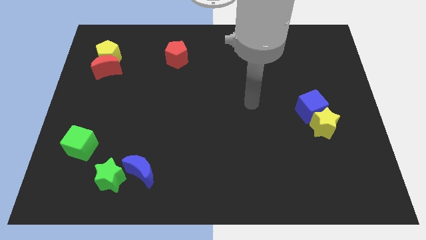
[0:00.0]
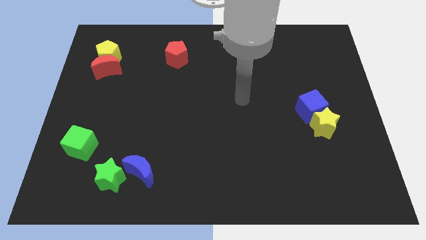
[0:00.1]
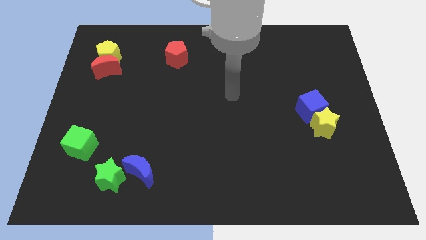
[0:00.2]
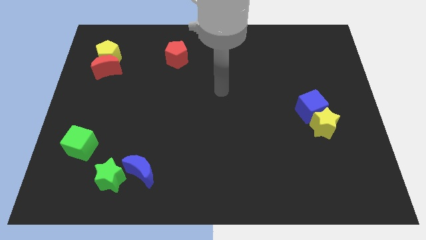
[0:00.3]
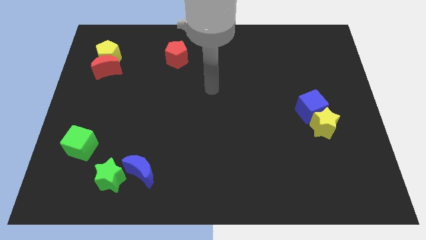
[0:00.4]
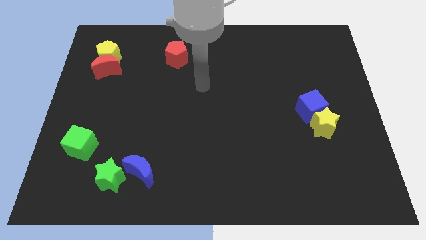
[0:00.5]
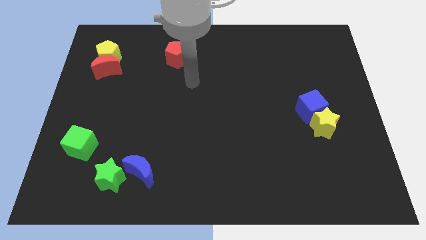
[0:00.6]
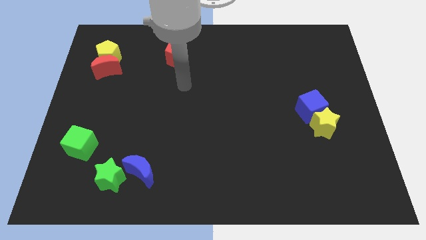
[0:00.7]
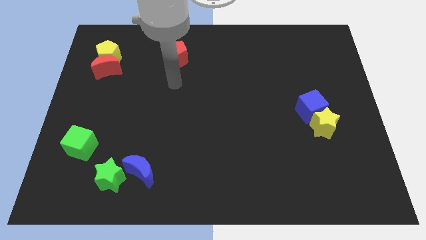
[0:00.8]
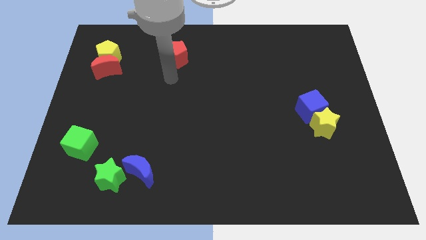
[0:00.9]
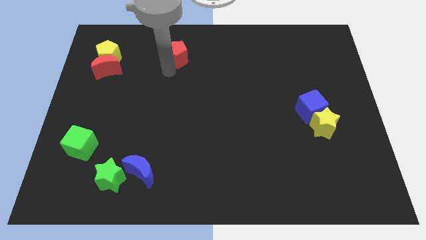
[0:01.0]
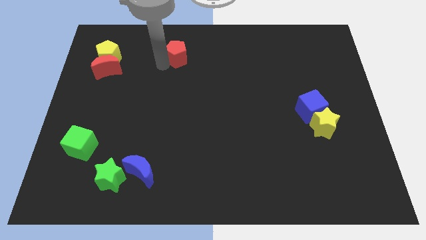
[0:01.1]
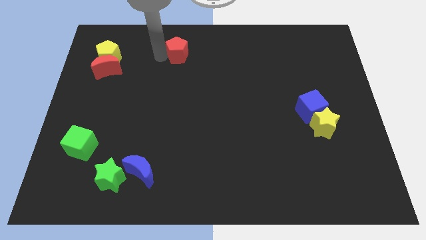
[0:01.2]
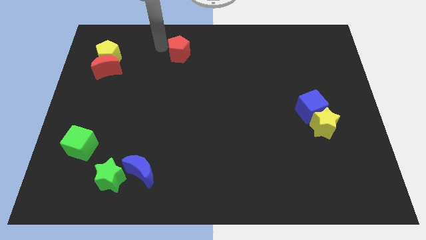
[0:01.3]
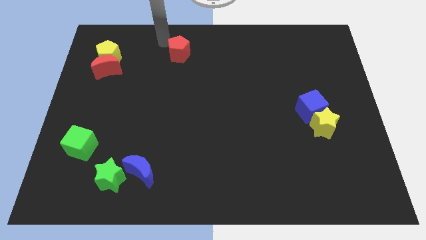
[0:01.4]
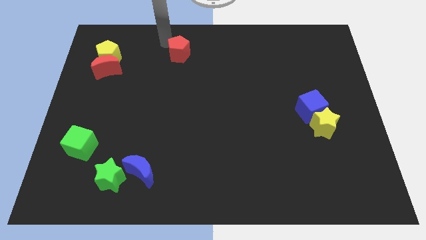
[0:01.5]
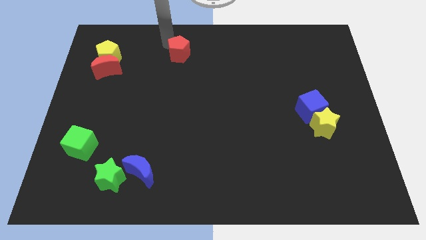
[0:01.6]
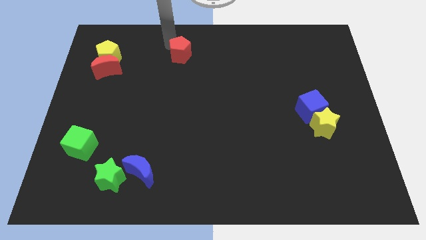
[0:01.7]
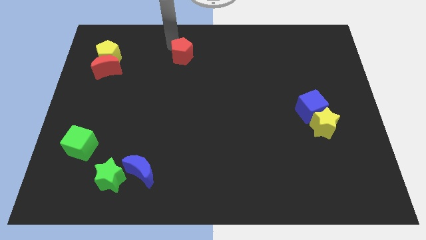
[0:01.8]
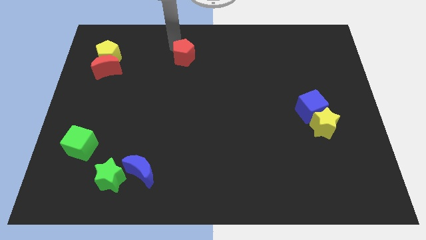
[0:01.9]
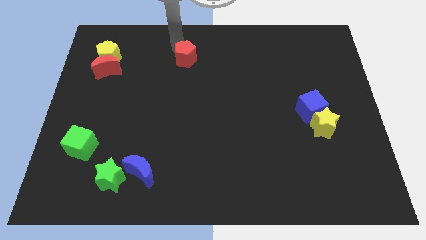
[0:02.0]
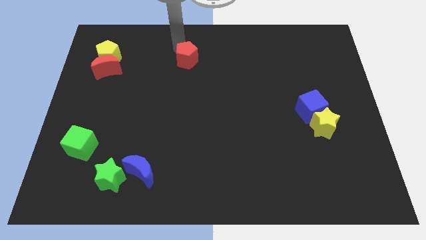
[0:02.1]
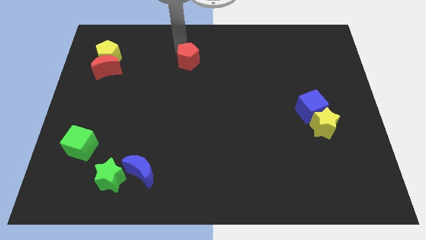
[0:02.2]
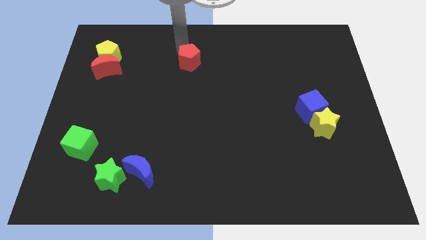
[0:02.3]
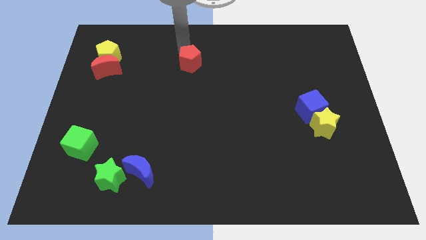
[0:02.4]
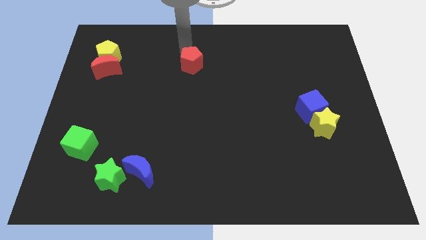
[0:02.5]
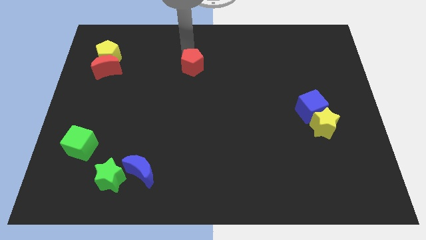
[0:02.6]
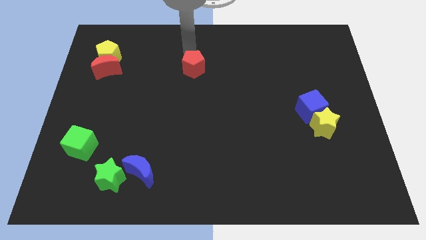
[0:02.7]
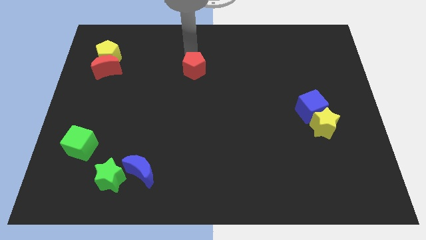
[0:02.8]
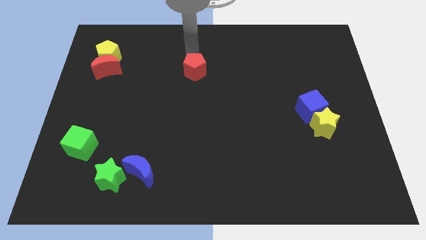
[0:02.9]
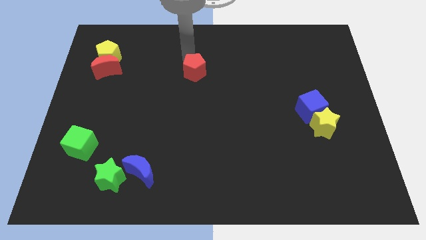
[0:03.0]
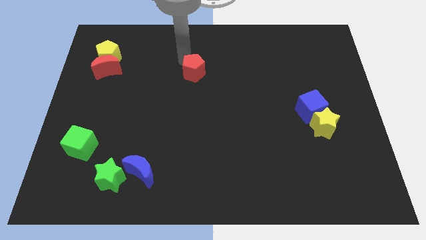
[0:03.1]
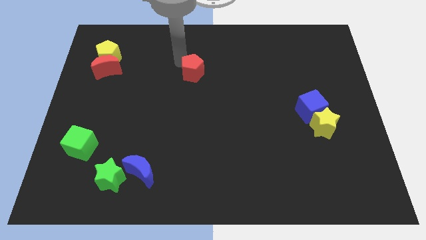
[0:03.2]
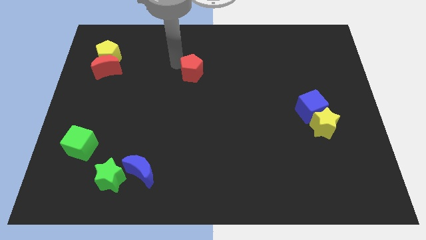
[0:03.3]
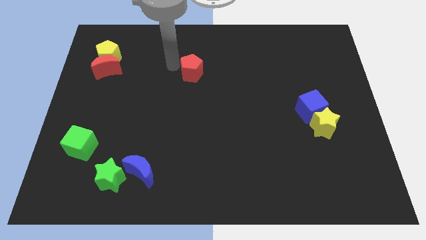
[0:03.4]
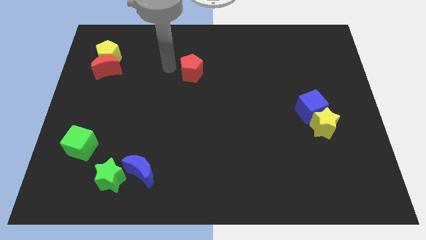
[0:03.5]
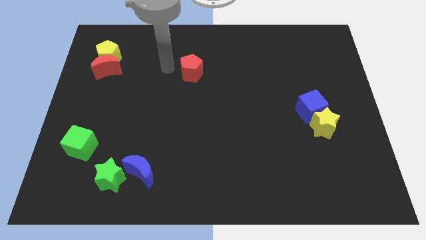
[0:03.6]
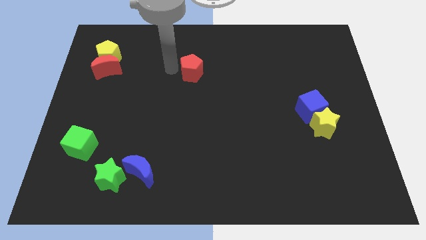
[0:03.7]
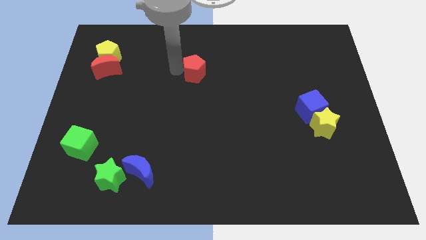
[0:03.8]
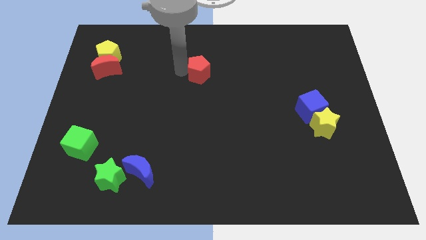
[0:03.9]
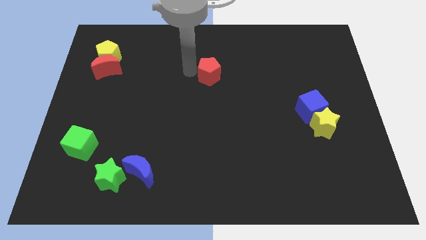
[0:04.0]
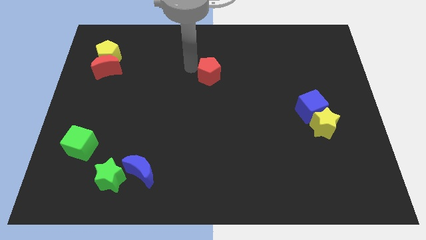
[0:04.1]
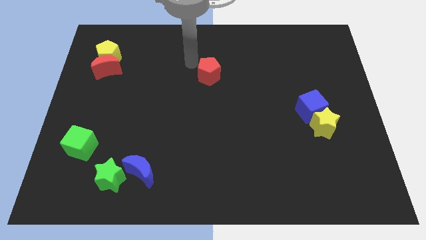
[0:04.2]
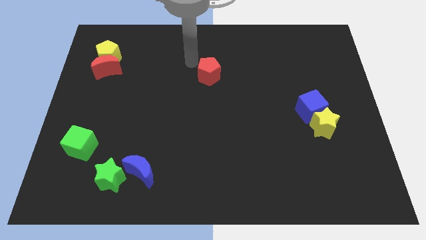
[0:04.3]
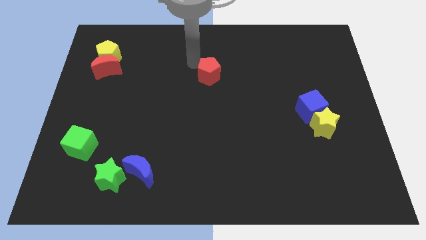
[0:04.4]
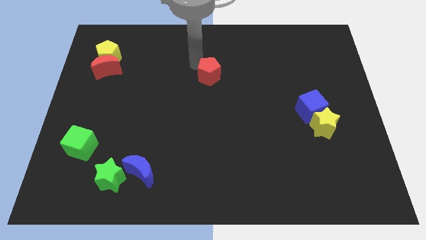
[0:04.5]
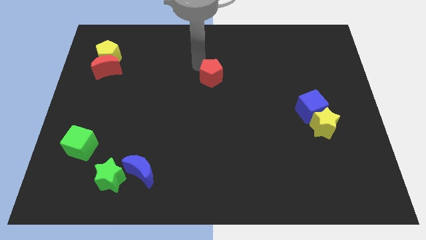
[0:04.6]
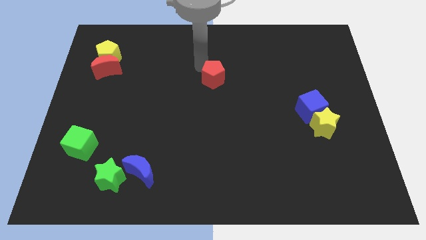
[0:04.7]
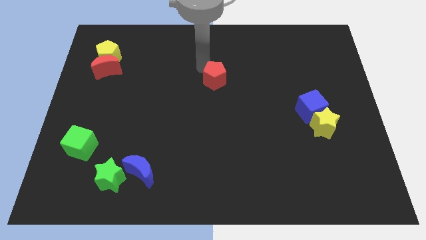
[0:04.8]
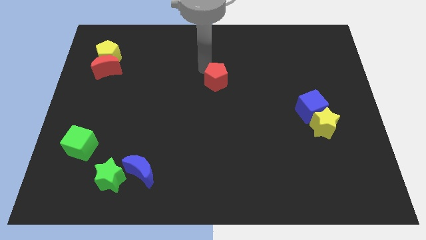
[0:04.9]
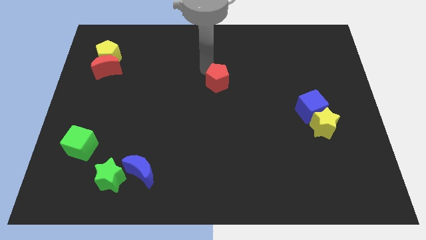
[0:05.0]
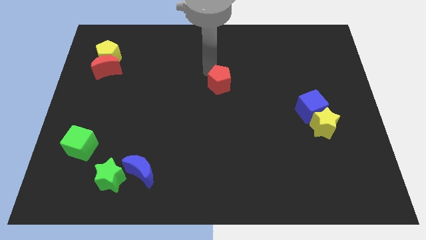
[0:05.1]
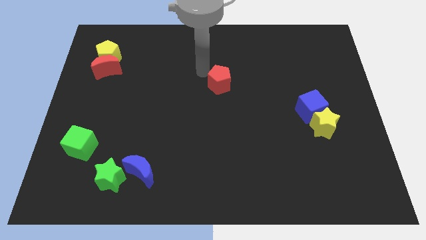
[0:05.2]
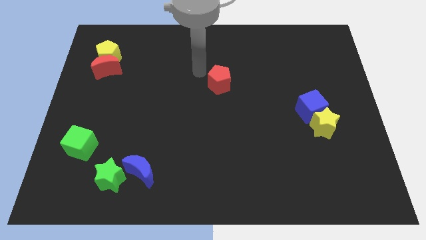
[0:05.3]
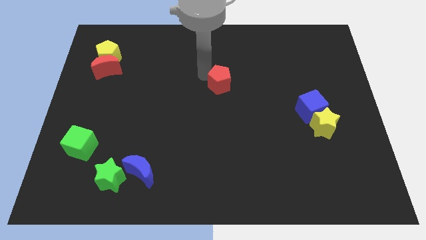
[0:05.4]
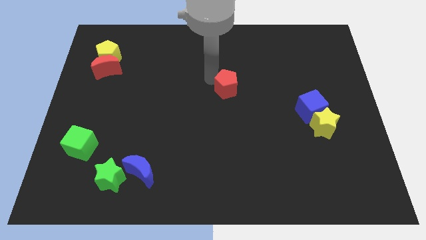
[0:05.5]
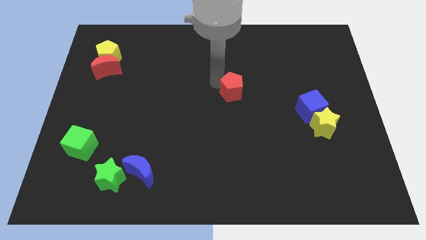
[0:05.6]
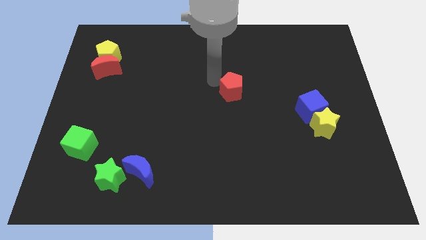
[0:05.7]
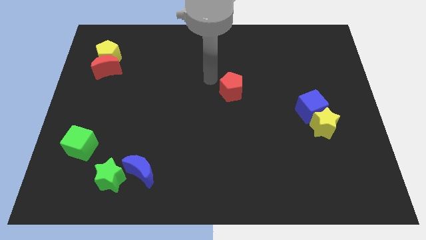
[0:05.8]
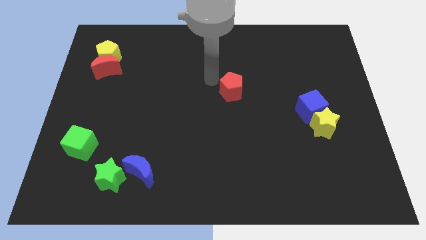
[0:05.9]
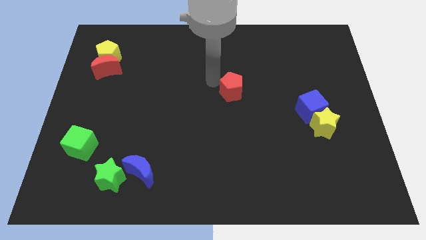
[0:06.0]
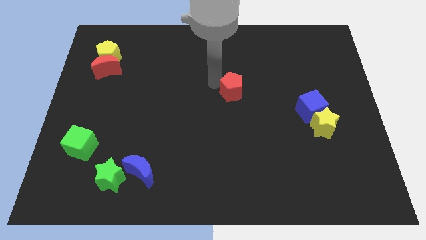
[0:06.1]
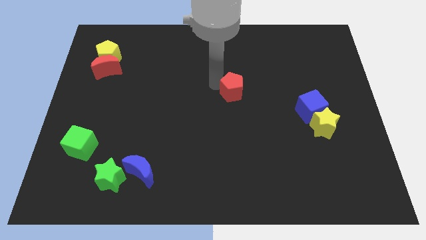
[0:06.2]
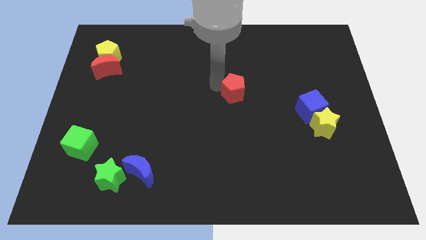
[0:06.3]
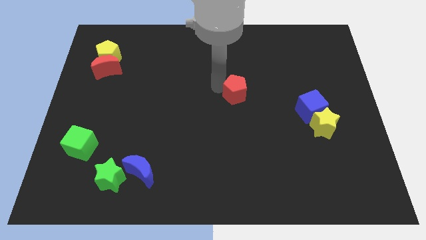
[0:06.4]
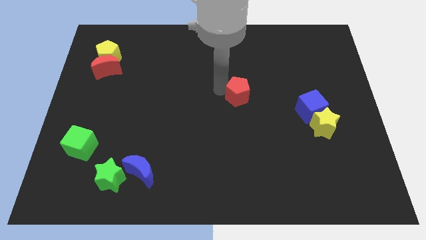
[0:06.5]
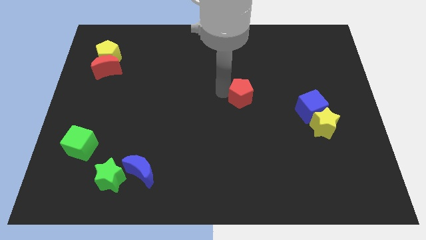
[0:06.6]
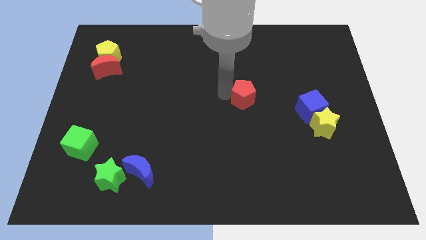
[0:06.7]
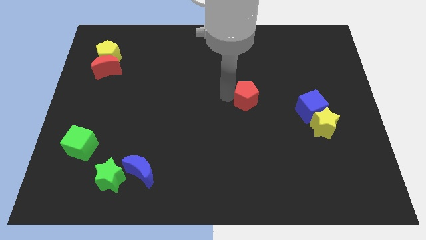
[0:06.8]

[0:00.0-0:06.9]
push the red pentagon left of the blue cube

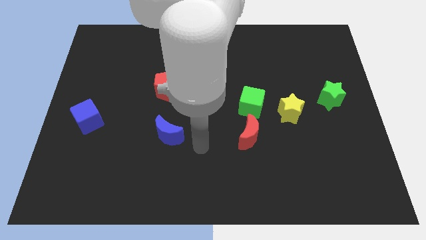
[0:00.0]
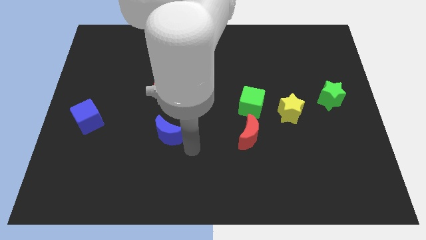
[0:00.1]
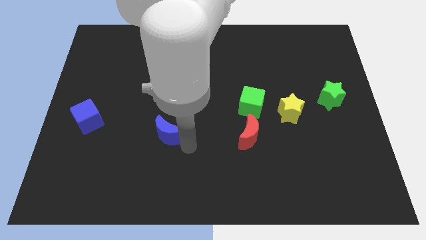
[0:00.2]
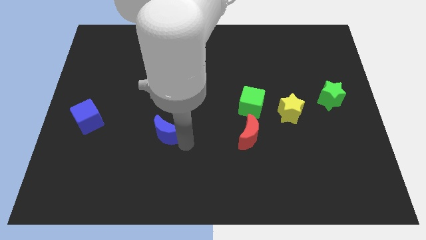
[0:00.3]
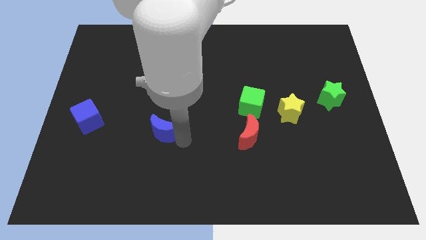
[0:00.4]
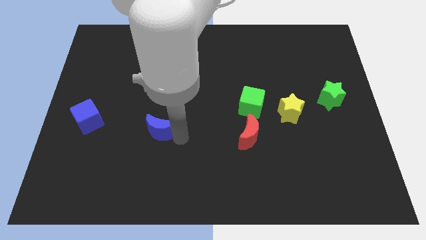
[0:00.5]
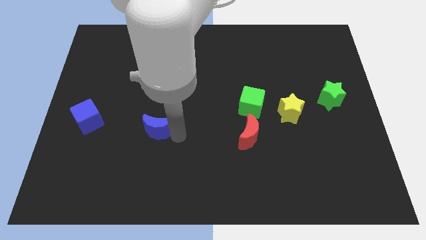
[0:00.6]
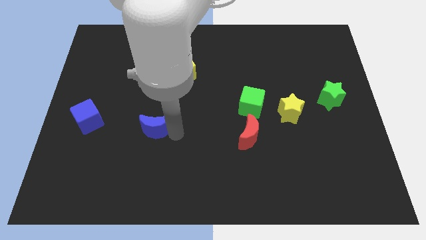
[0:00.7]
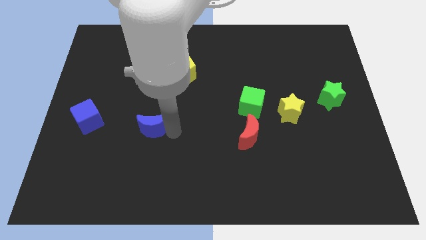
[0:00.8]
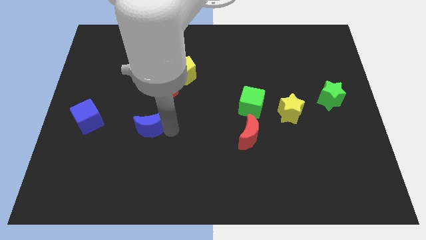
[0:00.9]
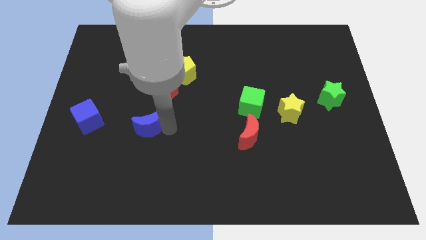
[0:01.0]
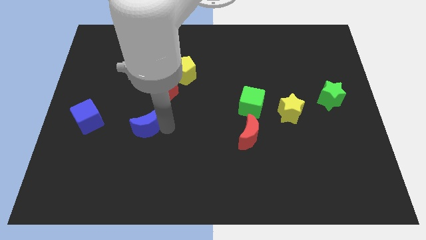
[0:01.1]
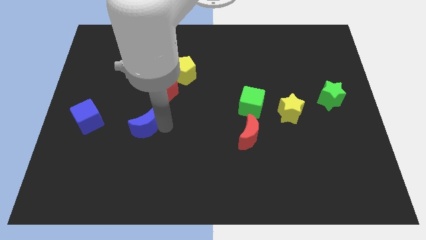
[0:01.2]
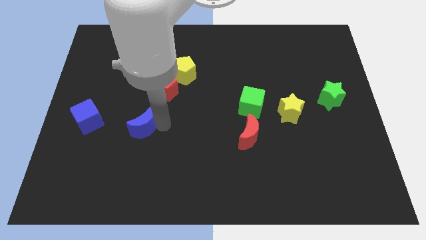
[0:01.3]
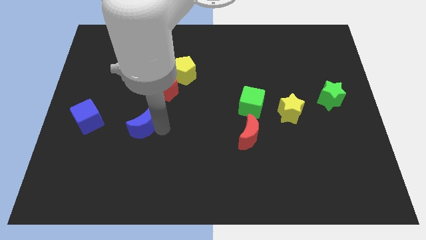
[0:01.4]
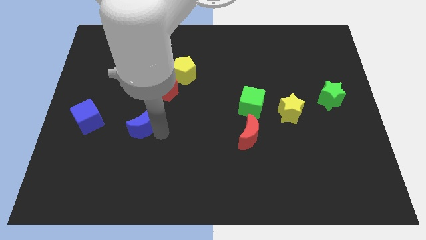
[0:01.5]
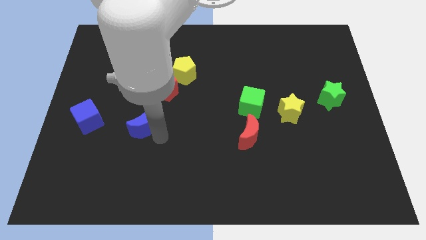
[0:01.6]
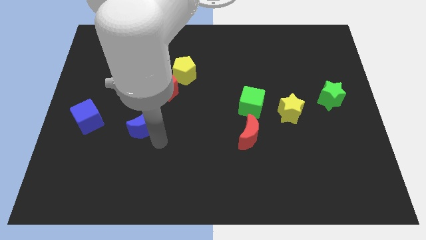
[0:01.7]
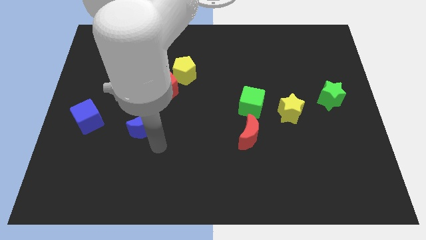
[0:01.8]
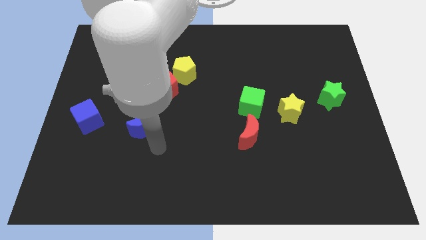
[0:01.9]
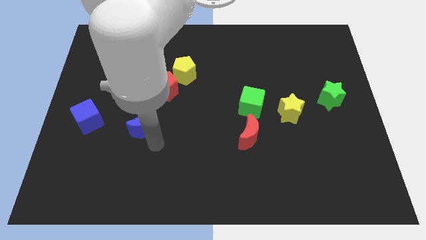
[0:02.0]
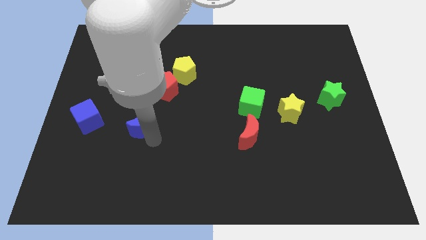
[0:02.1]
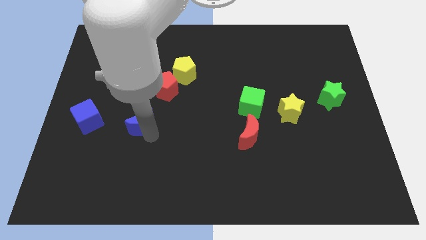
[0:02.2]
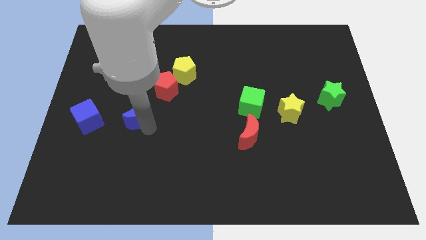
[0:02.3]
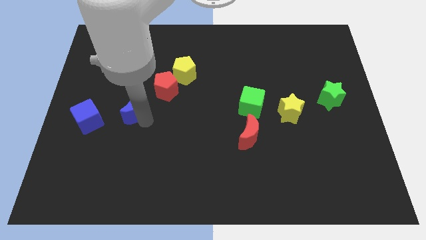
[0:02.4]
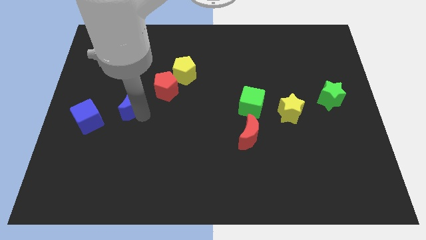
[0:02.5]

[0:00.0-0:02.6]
slide the blue moon diagonally up and to the right of the blue cube
